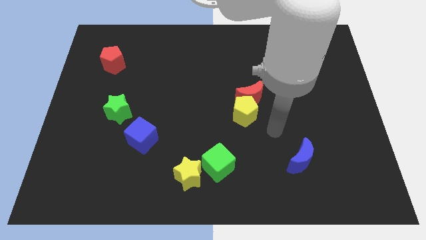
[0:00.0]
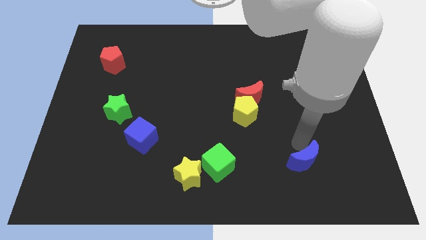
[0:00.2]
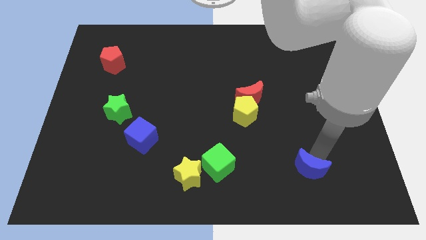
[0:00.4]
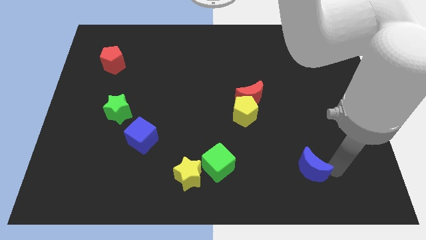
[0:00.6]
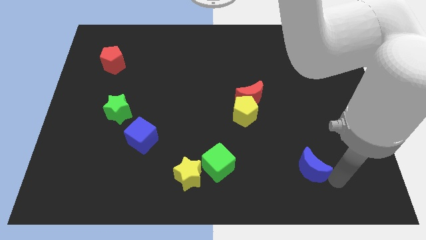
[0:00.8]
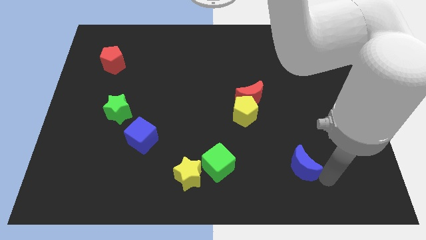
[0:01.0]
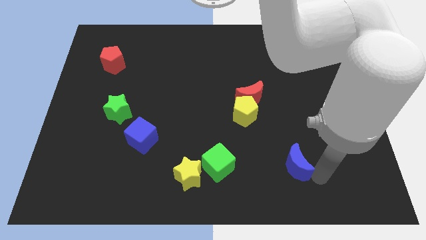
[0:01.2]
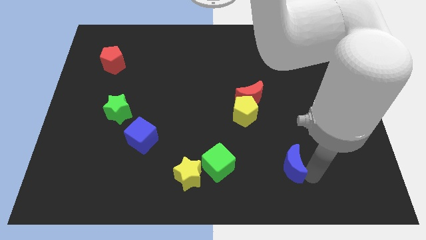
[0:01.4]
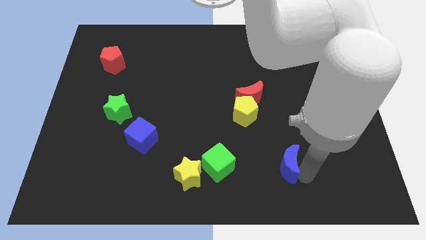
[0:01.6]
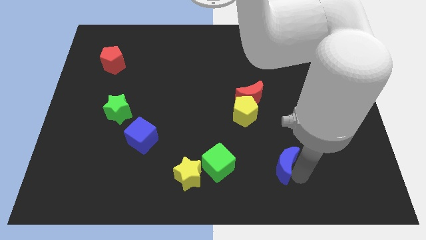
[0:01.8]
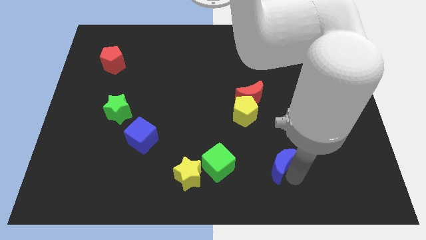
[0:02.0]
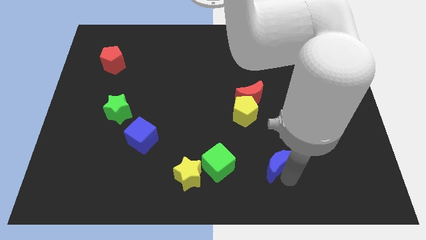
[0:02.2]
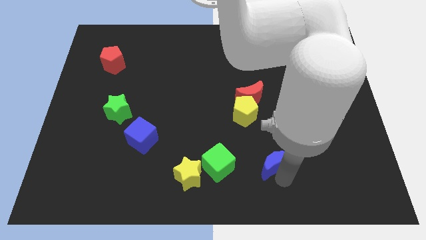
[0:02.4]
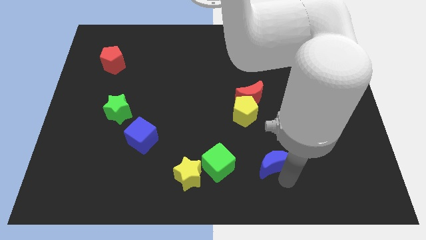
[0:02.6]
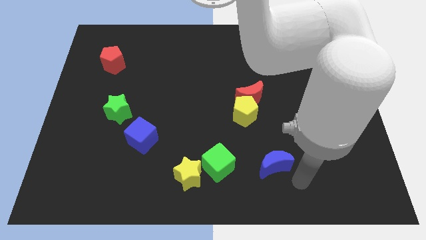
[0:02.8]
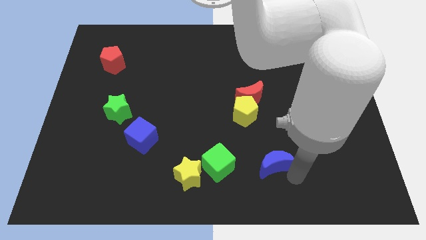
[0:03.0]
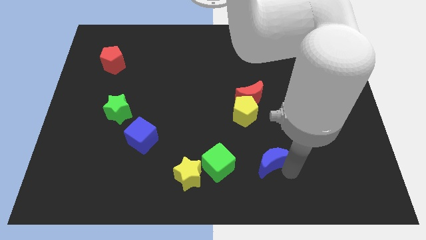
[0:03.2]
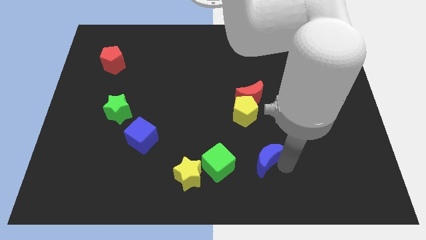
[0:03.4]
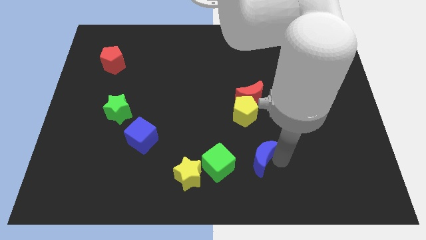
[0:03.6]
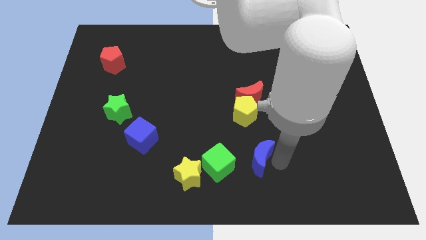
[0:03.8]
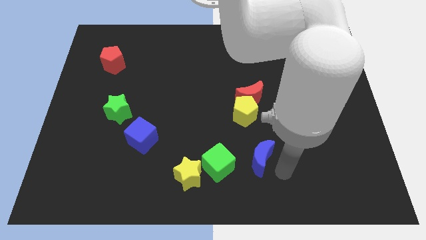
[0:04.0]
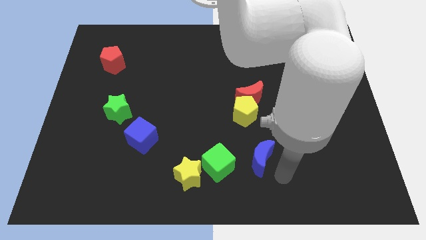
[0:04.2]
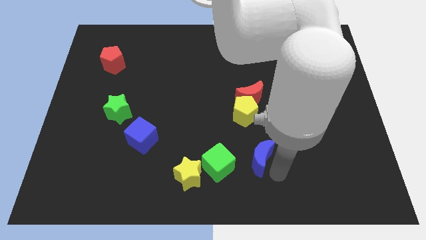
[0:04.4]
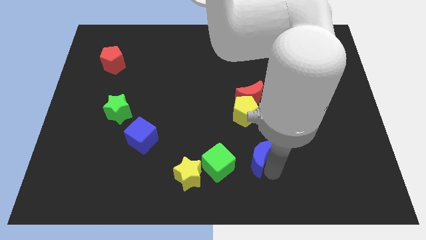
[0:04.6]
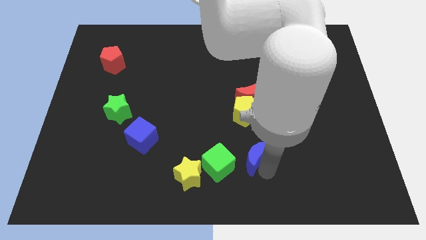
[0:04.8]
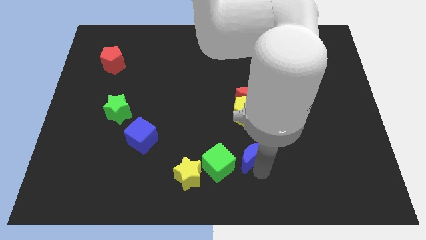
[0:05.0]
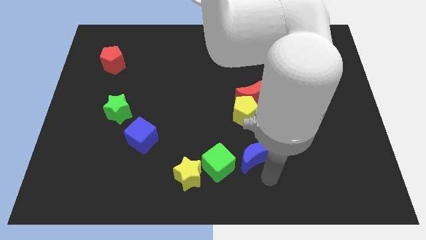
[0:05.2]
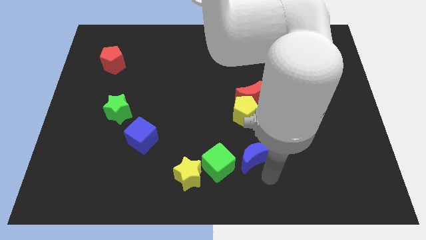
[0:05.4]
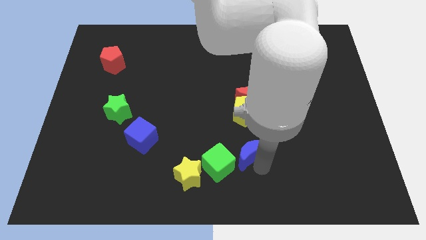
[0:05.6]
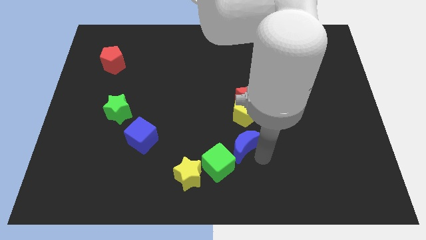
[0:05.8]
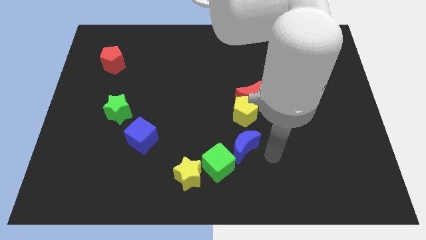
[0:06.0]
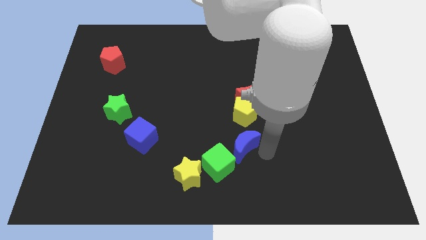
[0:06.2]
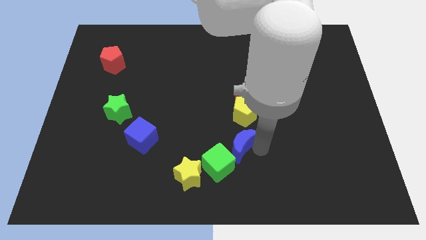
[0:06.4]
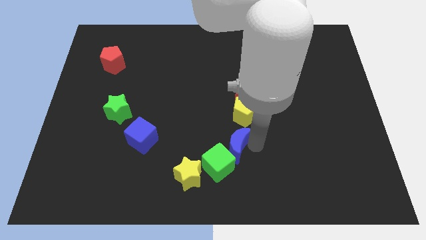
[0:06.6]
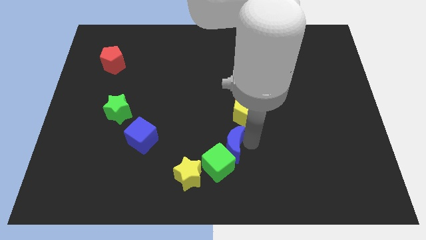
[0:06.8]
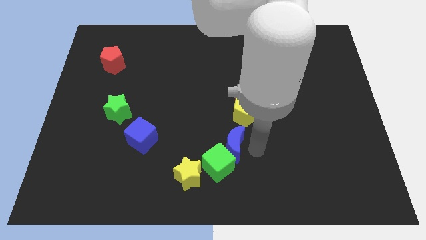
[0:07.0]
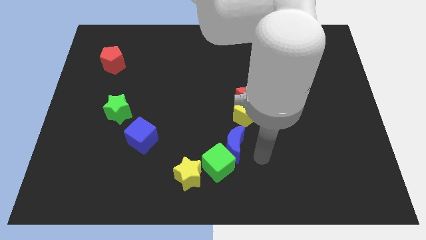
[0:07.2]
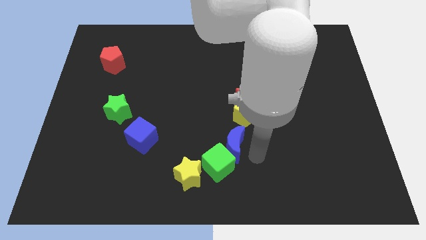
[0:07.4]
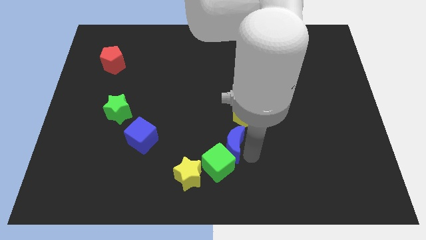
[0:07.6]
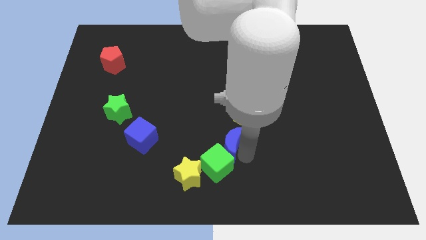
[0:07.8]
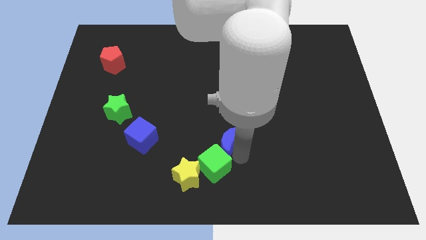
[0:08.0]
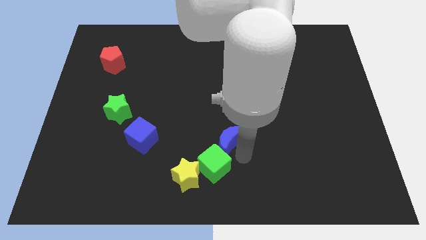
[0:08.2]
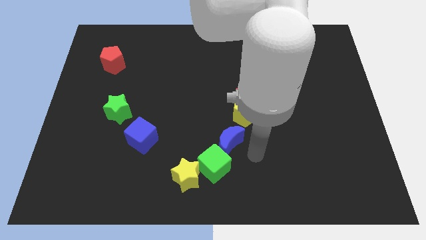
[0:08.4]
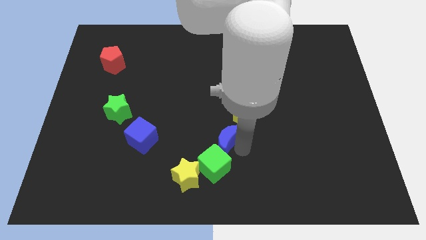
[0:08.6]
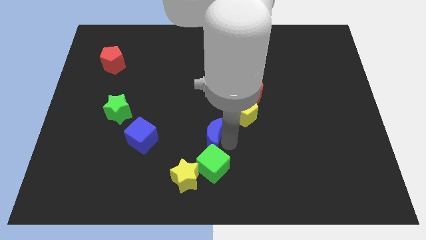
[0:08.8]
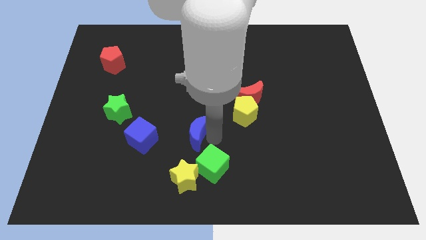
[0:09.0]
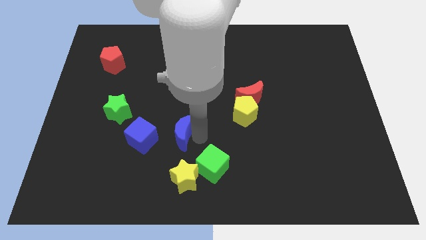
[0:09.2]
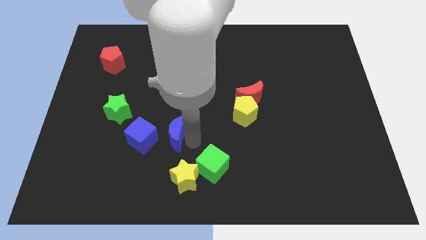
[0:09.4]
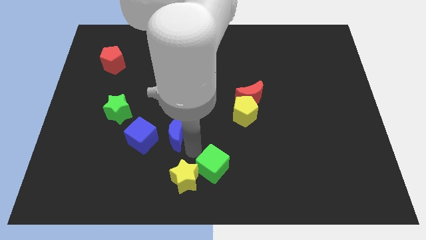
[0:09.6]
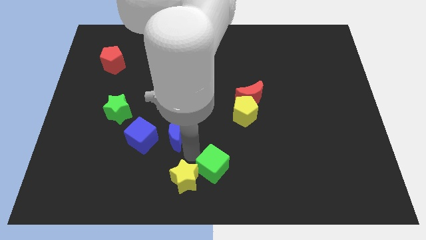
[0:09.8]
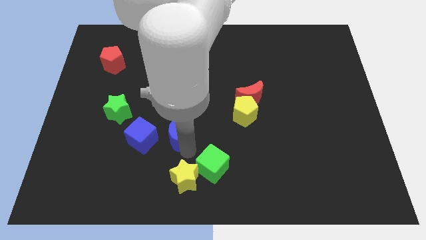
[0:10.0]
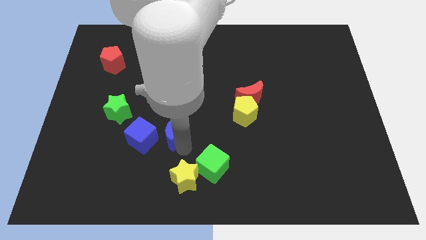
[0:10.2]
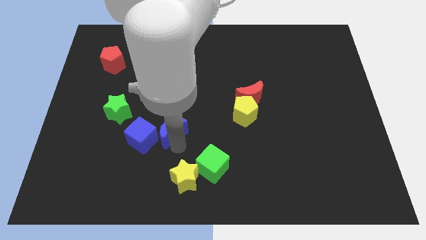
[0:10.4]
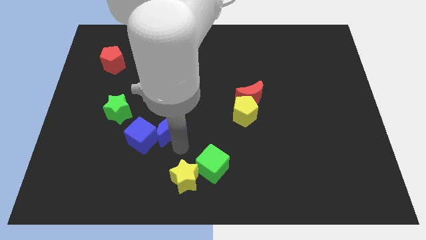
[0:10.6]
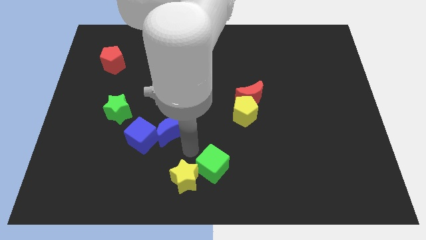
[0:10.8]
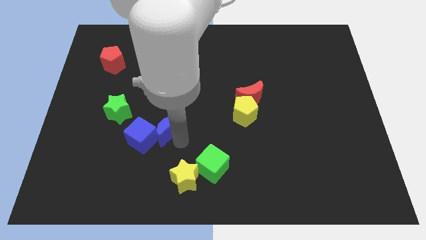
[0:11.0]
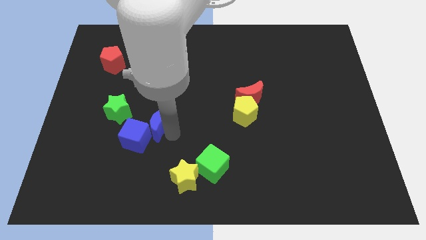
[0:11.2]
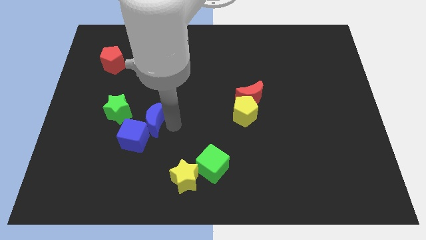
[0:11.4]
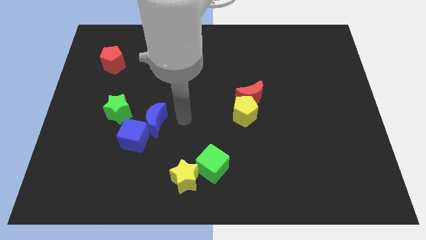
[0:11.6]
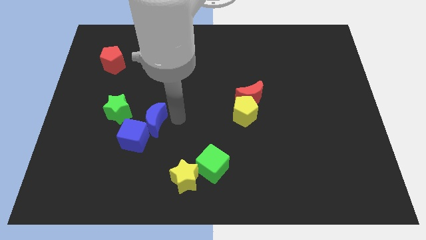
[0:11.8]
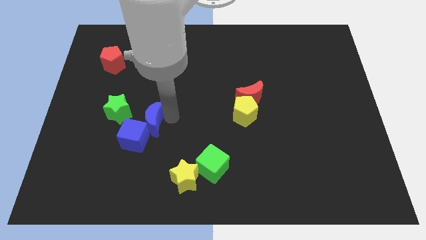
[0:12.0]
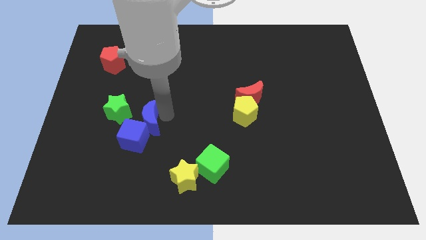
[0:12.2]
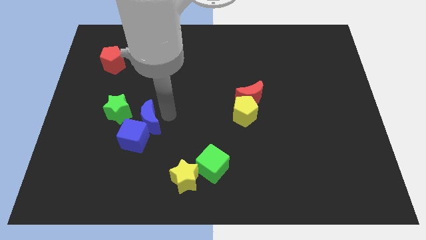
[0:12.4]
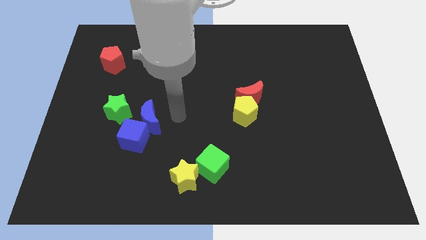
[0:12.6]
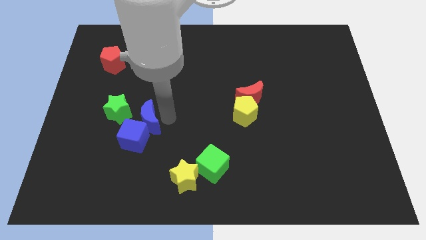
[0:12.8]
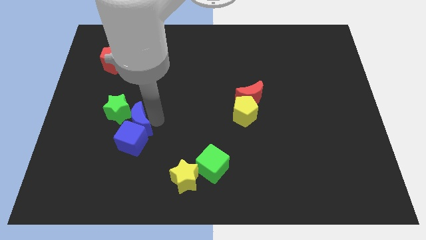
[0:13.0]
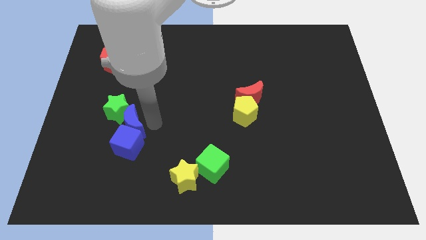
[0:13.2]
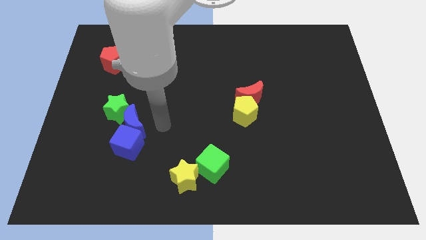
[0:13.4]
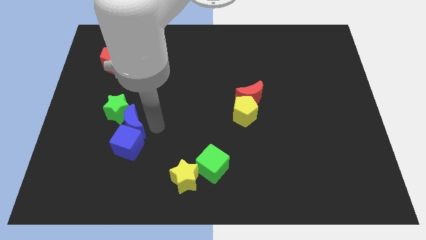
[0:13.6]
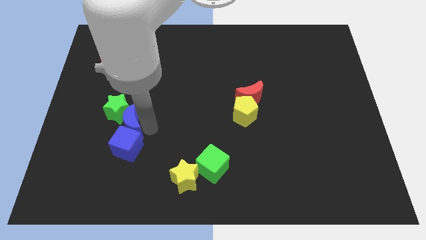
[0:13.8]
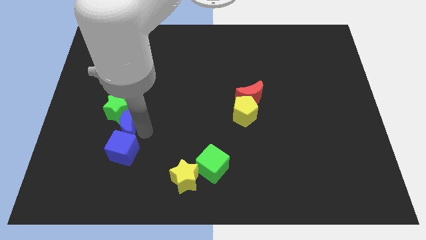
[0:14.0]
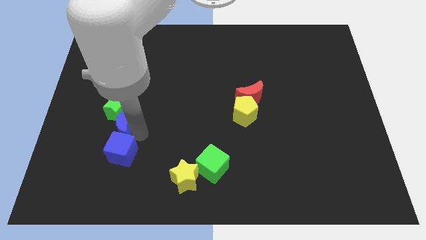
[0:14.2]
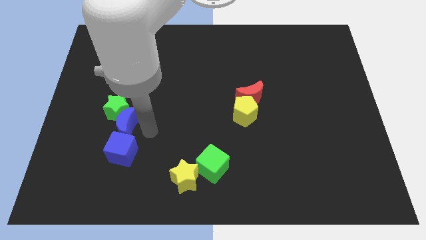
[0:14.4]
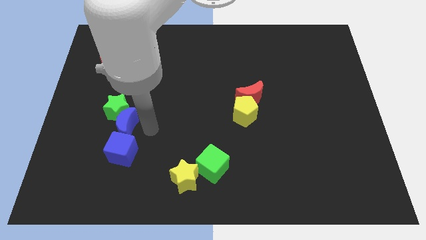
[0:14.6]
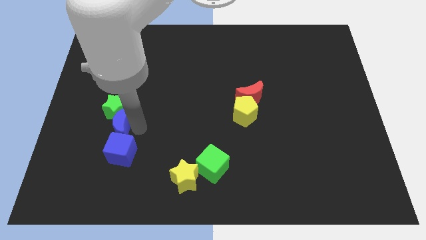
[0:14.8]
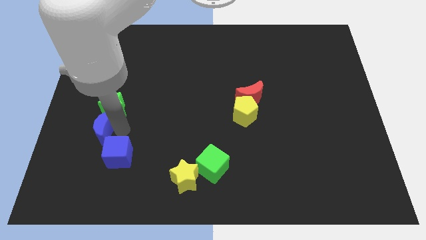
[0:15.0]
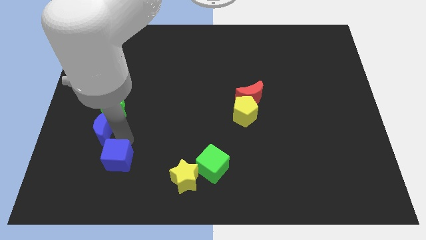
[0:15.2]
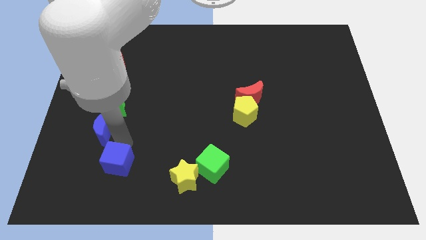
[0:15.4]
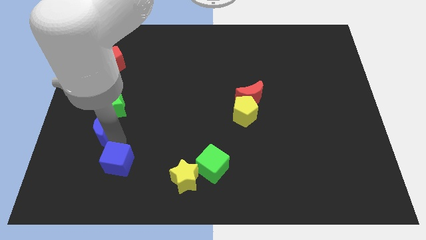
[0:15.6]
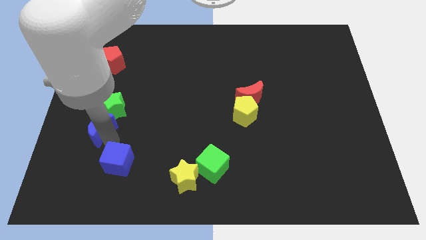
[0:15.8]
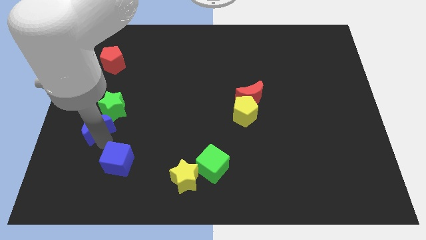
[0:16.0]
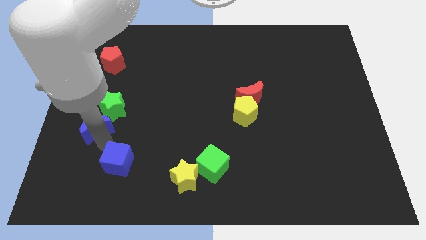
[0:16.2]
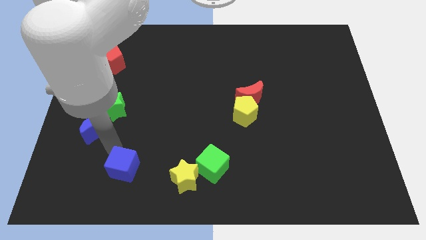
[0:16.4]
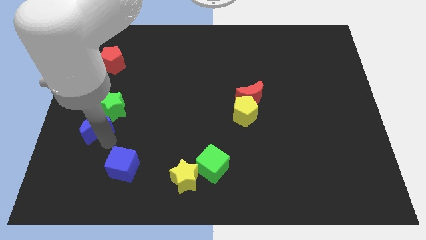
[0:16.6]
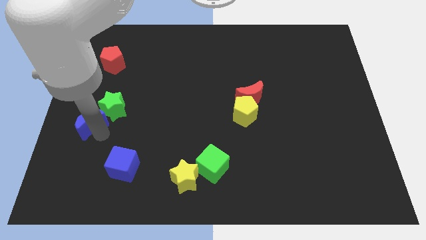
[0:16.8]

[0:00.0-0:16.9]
move the blue moon to the center left
